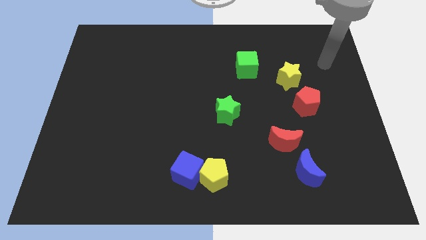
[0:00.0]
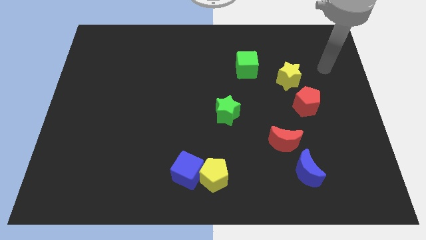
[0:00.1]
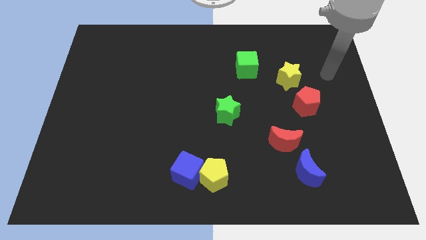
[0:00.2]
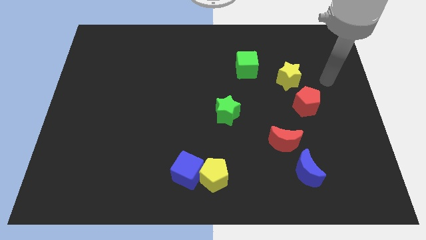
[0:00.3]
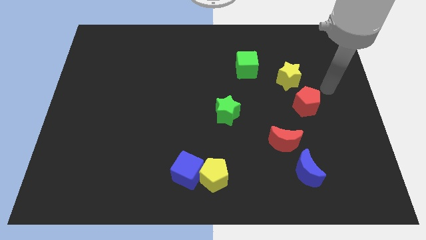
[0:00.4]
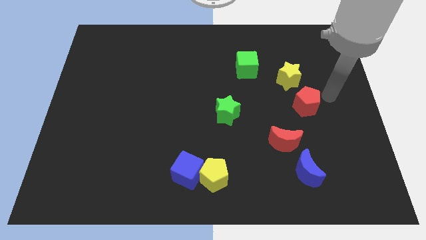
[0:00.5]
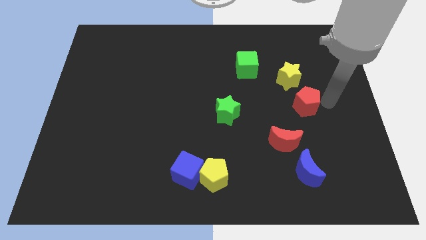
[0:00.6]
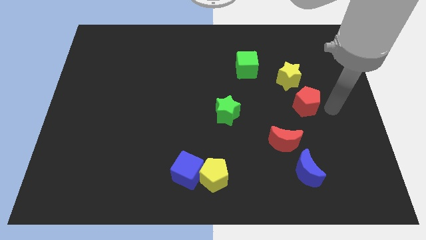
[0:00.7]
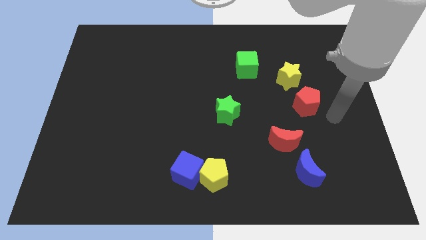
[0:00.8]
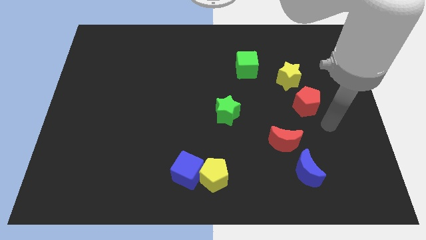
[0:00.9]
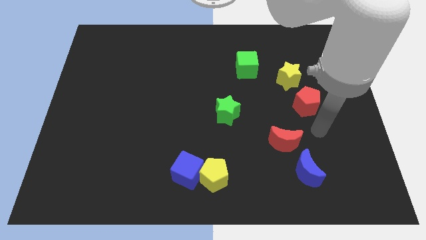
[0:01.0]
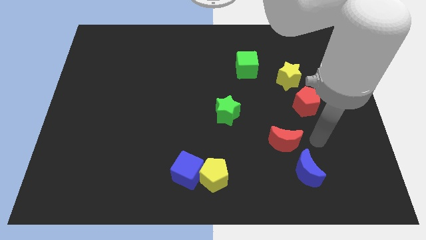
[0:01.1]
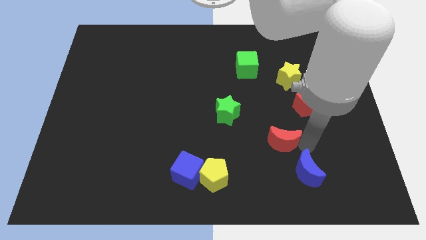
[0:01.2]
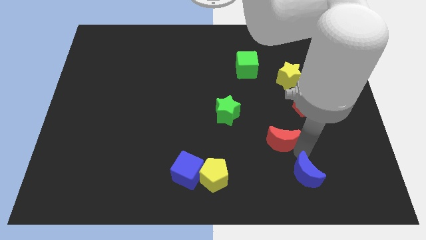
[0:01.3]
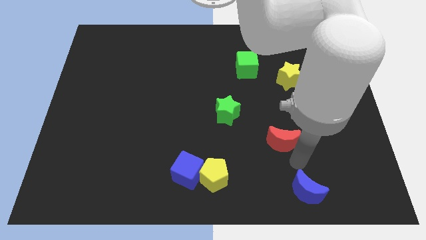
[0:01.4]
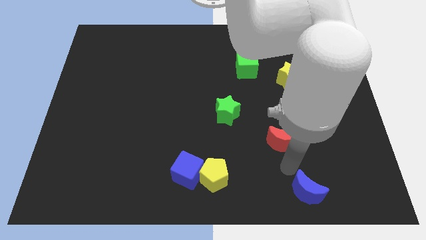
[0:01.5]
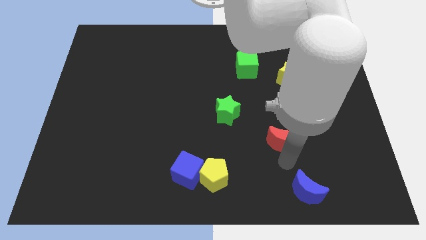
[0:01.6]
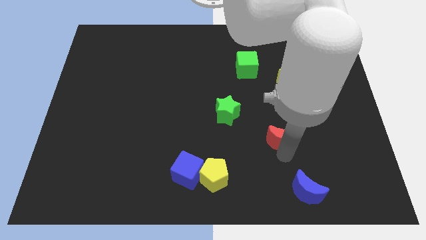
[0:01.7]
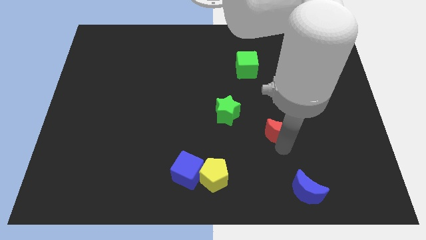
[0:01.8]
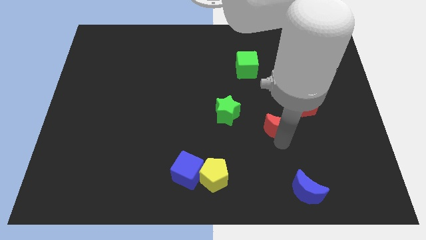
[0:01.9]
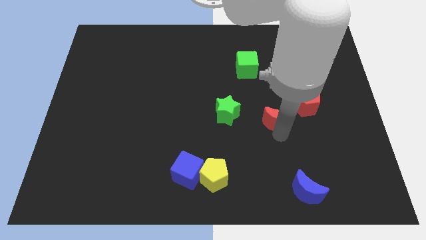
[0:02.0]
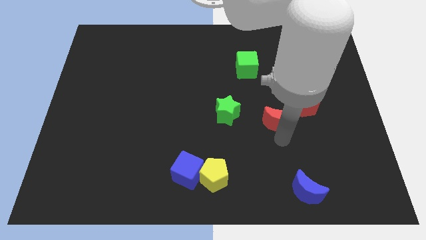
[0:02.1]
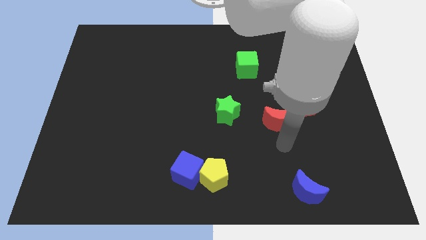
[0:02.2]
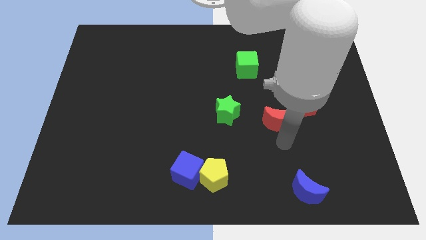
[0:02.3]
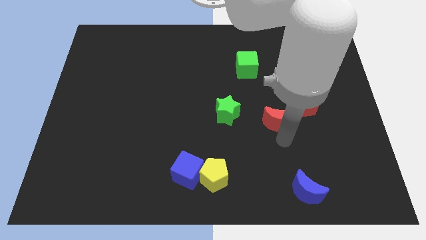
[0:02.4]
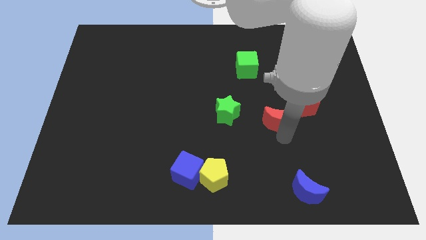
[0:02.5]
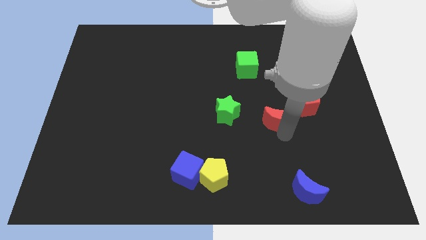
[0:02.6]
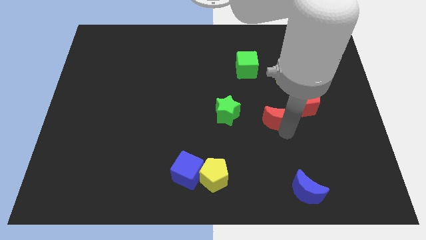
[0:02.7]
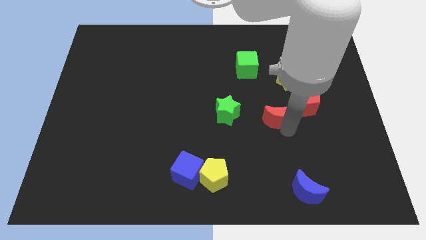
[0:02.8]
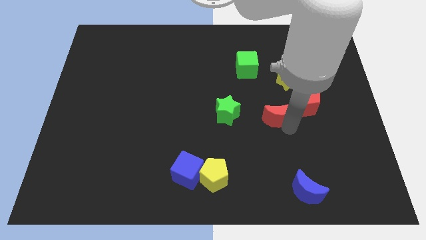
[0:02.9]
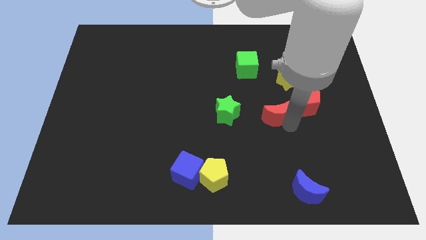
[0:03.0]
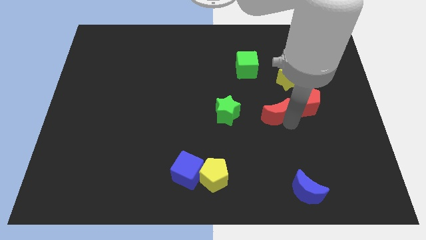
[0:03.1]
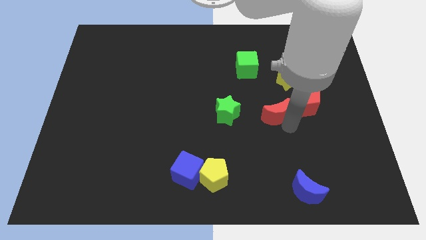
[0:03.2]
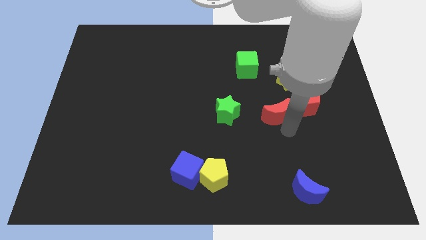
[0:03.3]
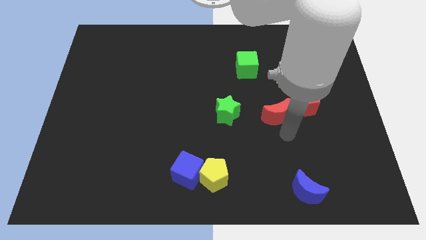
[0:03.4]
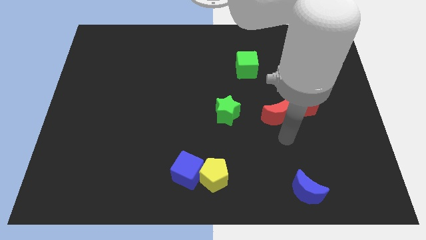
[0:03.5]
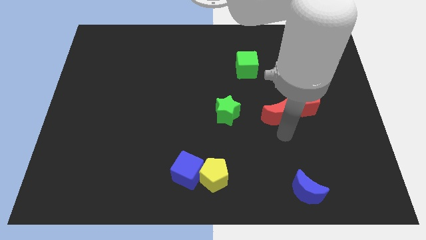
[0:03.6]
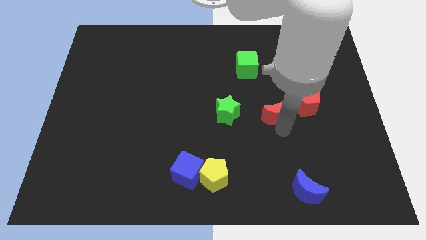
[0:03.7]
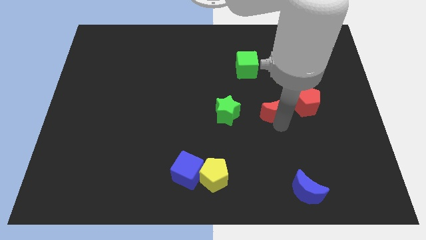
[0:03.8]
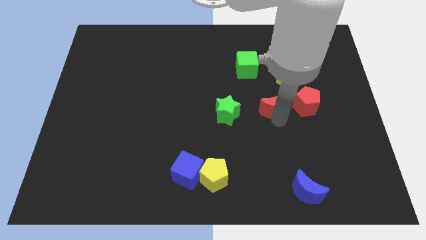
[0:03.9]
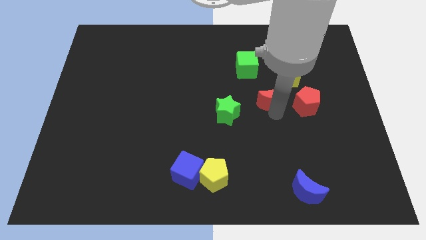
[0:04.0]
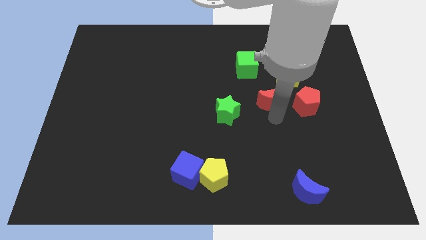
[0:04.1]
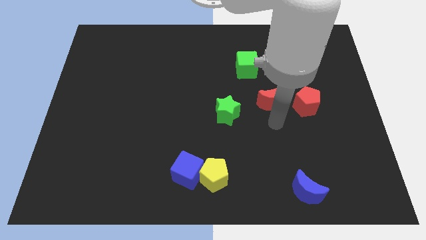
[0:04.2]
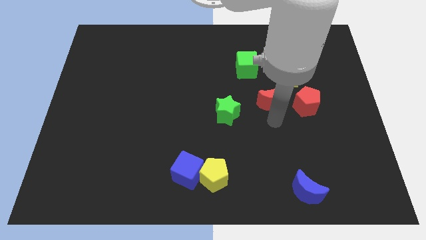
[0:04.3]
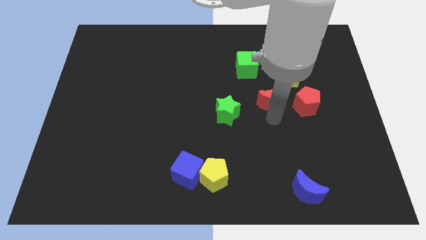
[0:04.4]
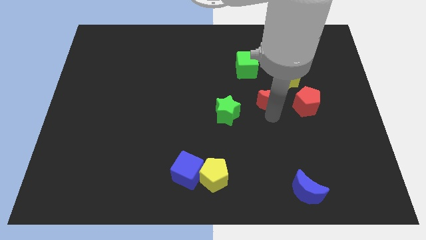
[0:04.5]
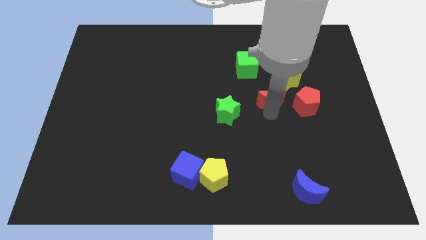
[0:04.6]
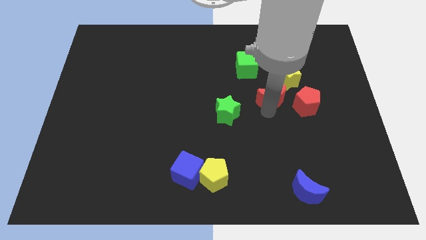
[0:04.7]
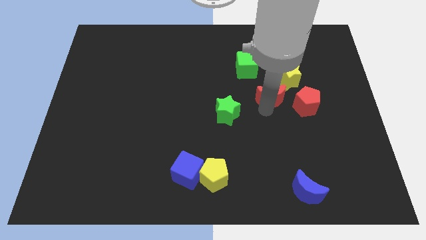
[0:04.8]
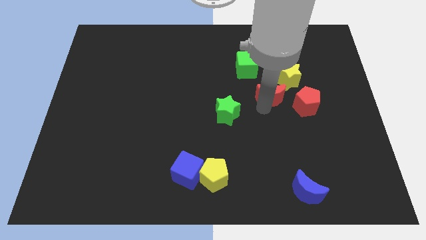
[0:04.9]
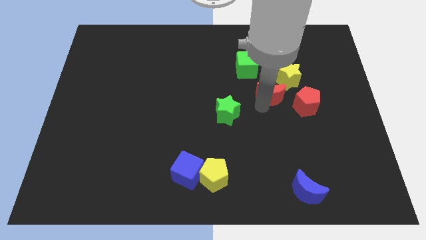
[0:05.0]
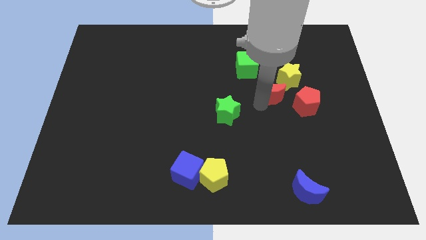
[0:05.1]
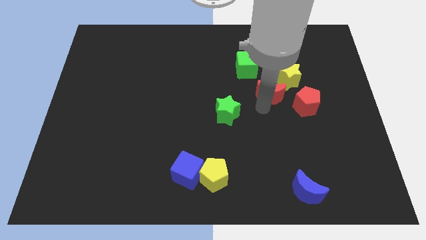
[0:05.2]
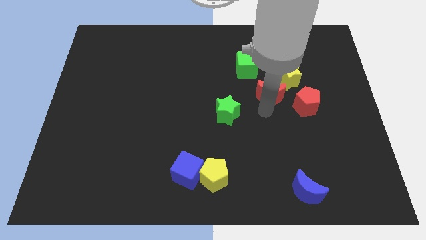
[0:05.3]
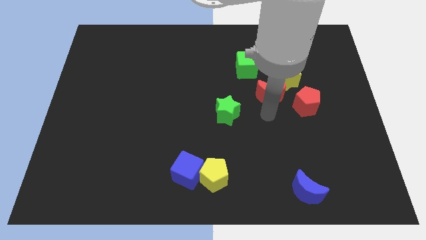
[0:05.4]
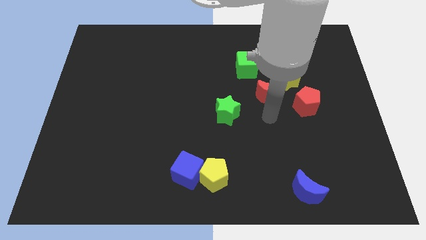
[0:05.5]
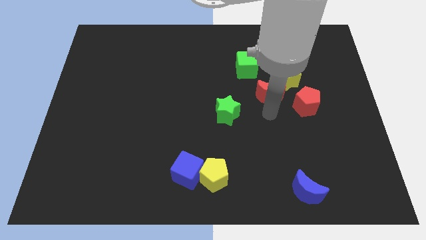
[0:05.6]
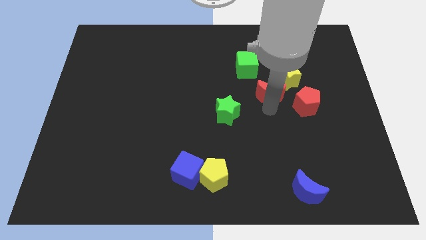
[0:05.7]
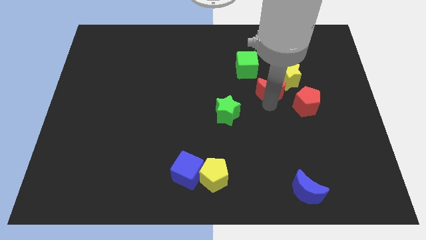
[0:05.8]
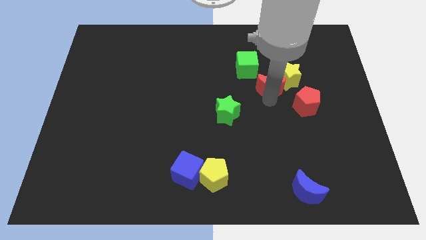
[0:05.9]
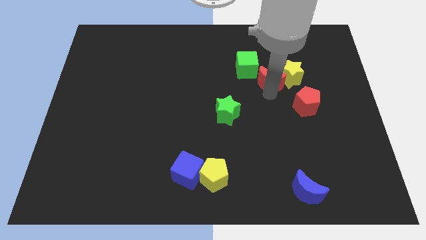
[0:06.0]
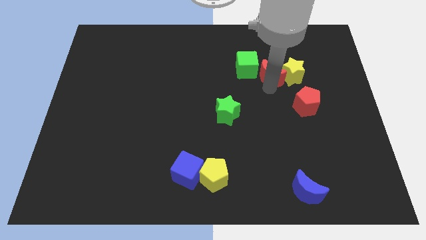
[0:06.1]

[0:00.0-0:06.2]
put the red moon to the top left of the yellow star
